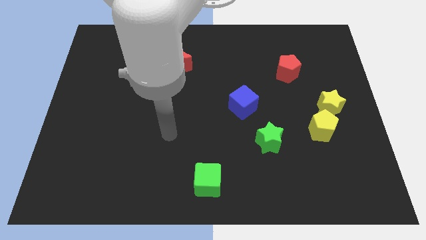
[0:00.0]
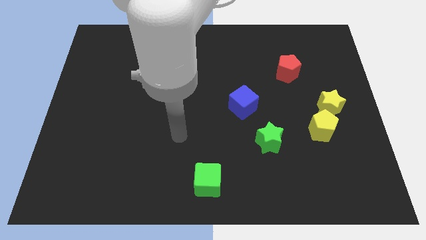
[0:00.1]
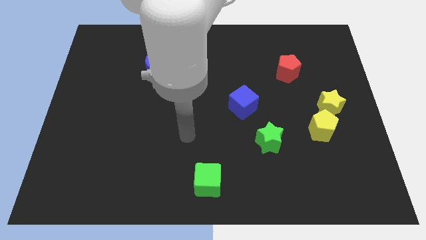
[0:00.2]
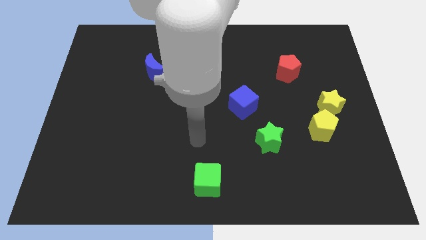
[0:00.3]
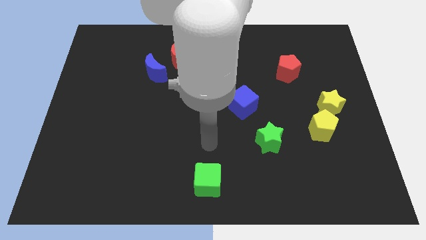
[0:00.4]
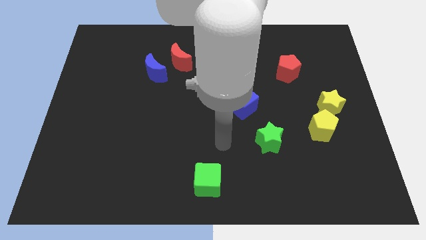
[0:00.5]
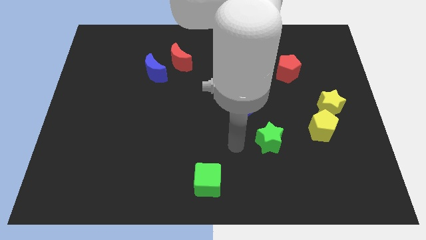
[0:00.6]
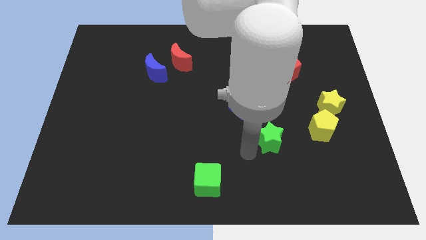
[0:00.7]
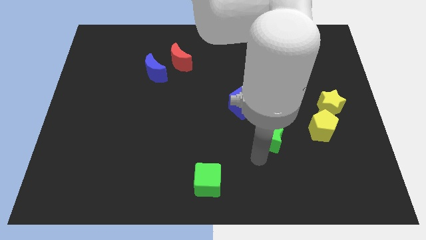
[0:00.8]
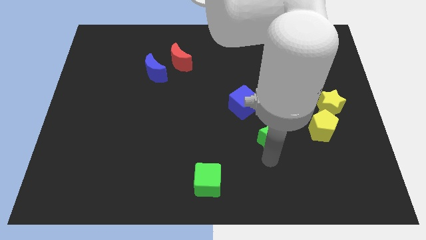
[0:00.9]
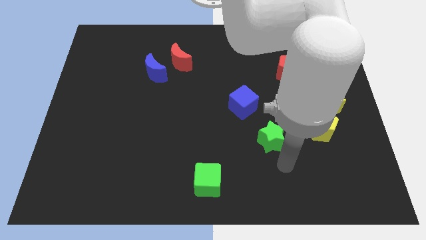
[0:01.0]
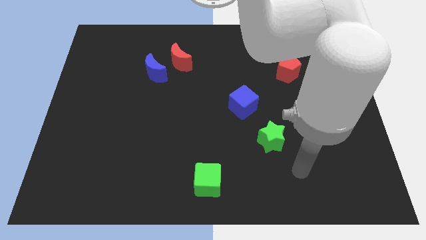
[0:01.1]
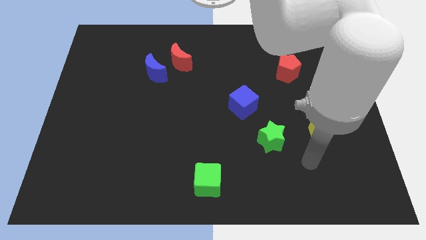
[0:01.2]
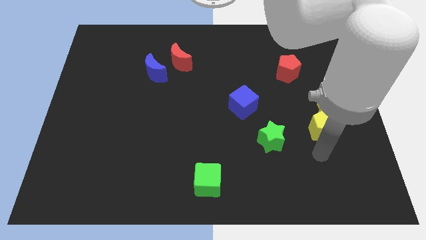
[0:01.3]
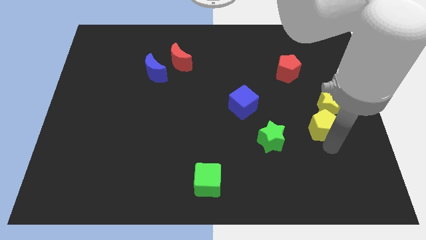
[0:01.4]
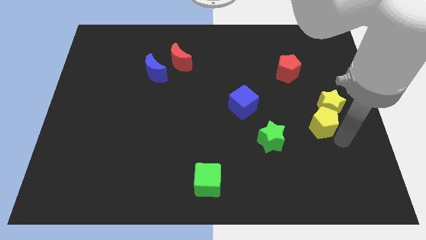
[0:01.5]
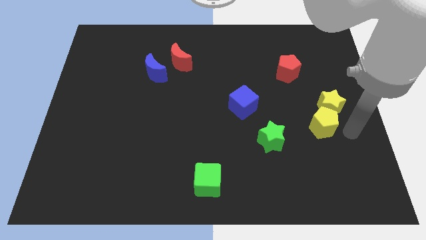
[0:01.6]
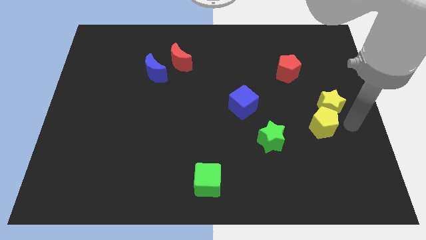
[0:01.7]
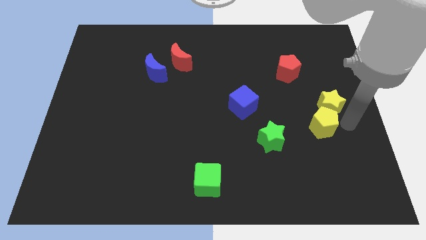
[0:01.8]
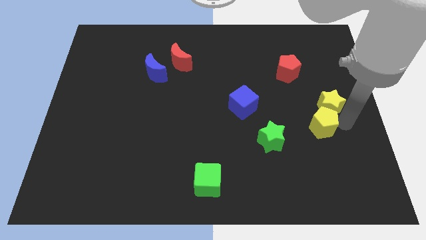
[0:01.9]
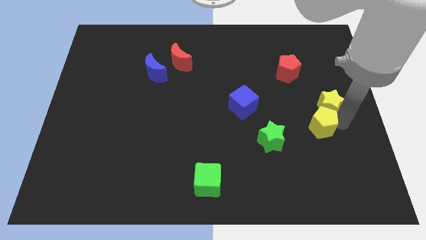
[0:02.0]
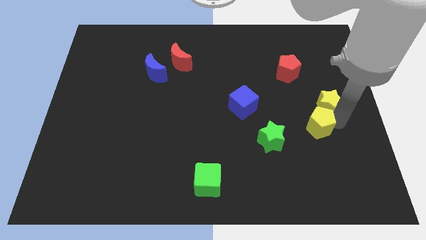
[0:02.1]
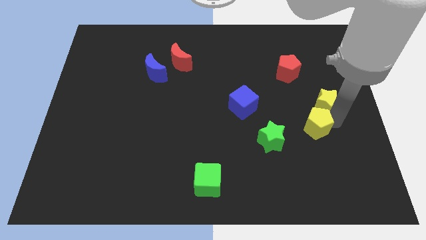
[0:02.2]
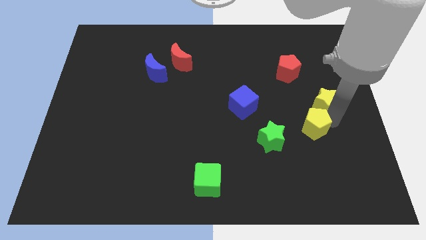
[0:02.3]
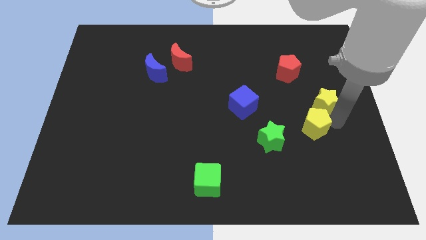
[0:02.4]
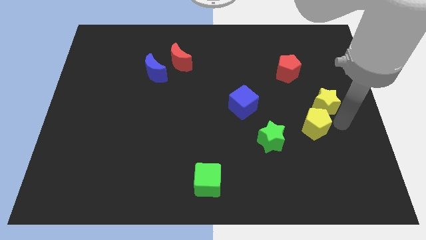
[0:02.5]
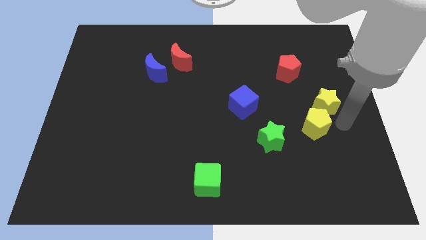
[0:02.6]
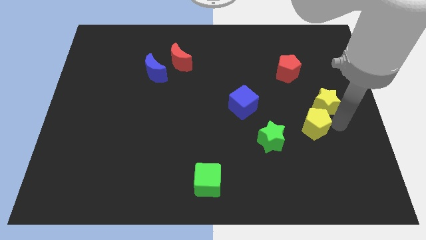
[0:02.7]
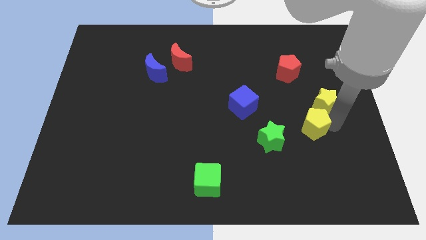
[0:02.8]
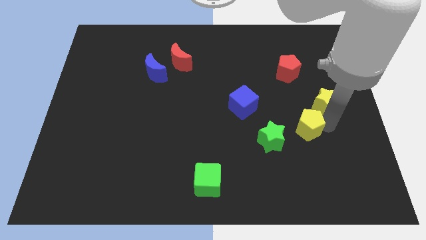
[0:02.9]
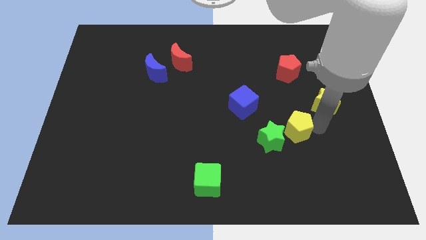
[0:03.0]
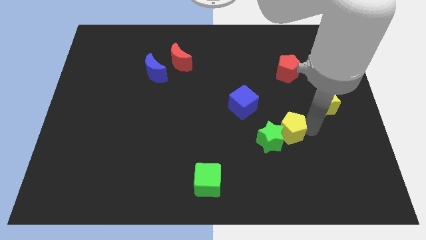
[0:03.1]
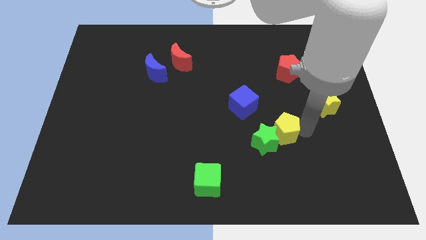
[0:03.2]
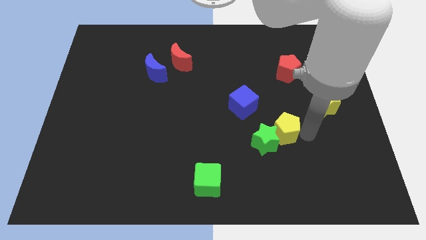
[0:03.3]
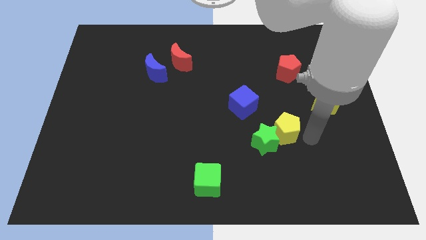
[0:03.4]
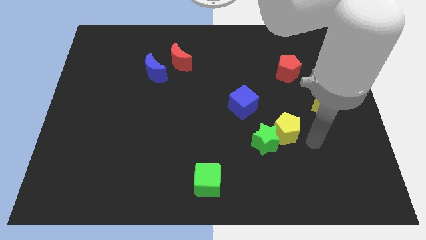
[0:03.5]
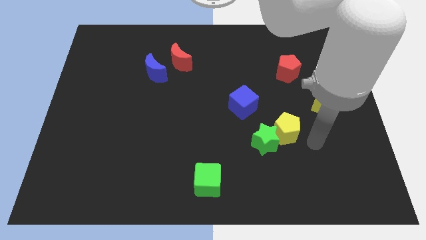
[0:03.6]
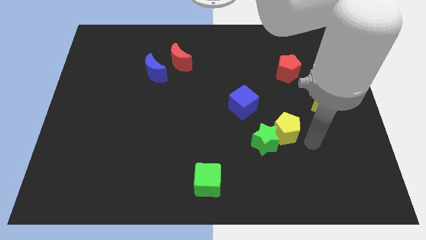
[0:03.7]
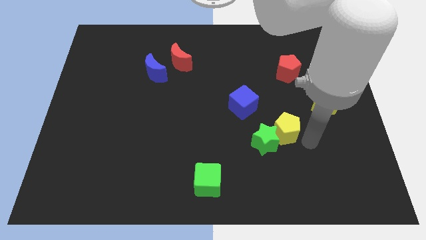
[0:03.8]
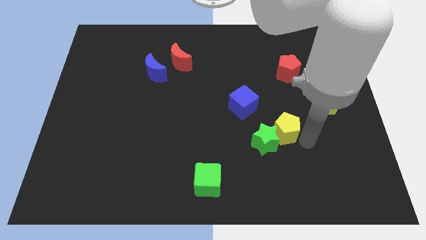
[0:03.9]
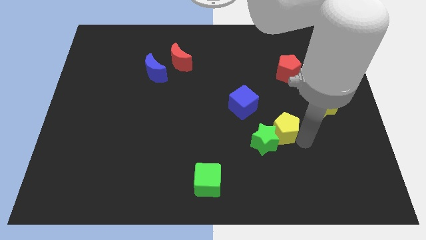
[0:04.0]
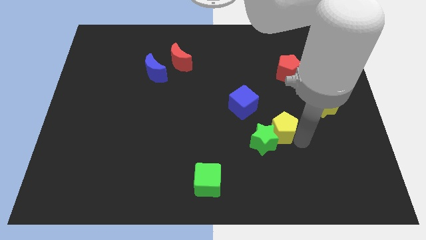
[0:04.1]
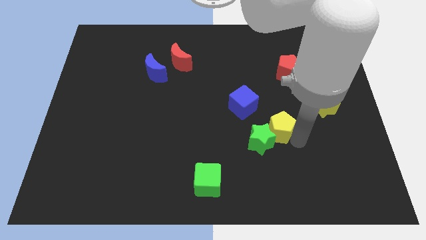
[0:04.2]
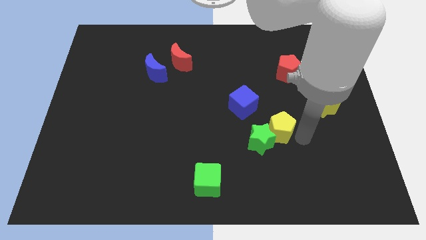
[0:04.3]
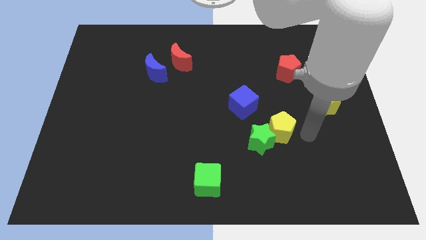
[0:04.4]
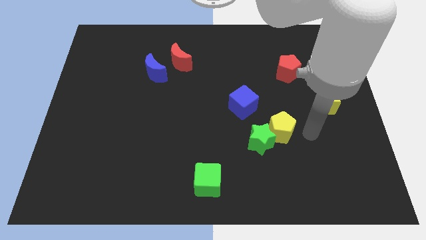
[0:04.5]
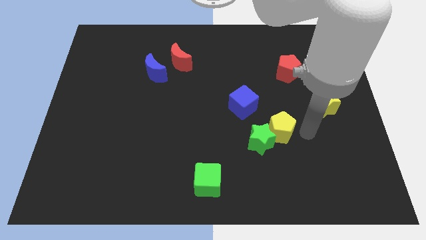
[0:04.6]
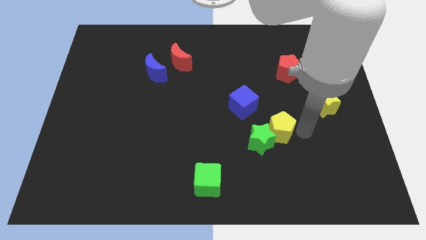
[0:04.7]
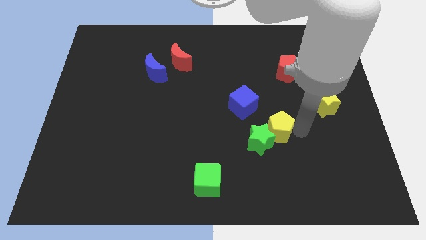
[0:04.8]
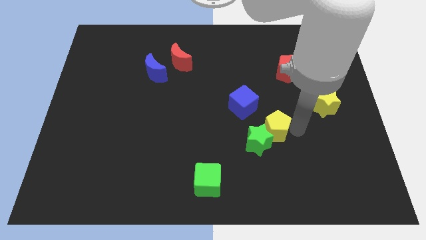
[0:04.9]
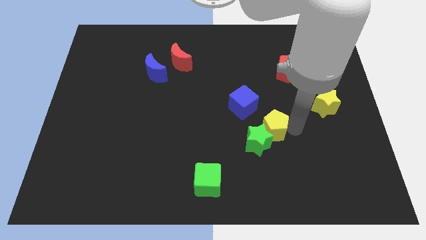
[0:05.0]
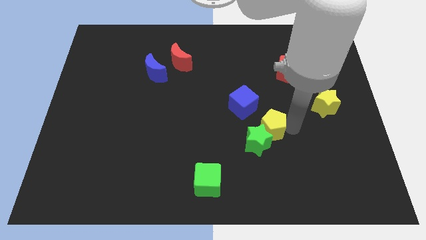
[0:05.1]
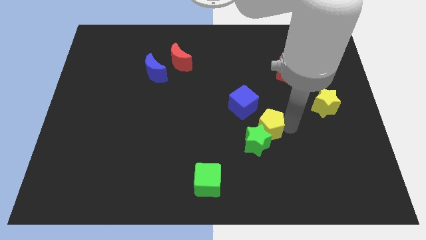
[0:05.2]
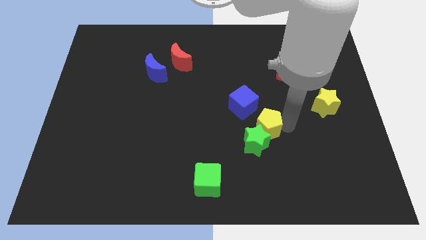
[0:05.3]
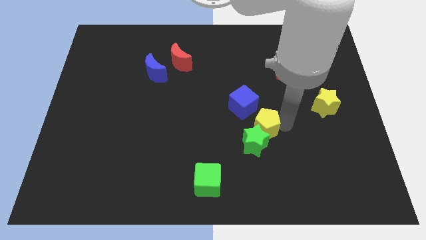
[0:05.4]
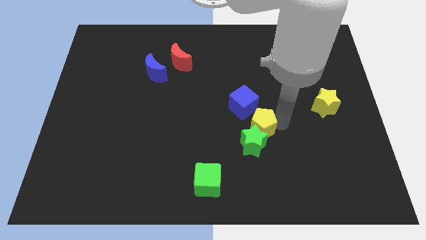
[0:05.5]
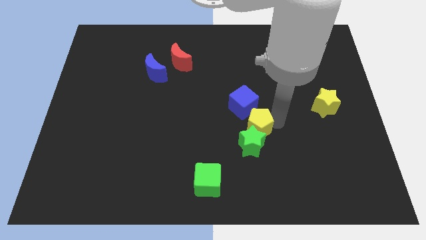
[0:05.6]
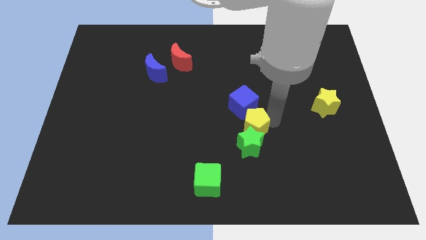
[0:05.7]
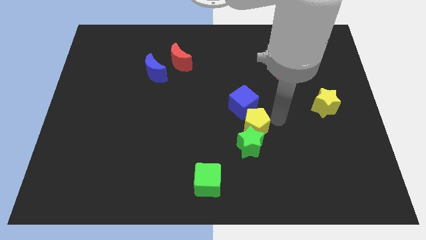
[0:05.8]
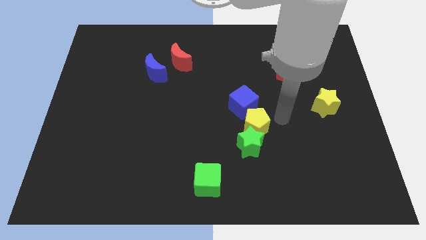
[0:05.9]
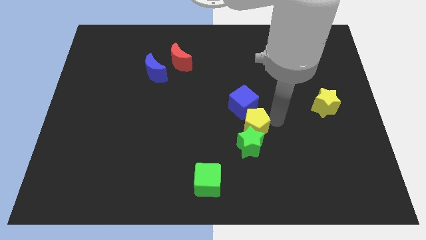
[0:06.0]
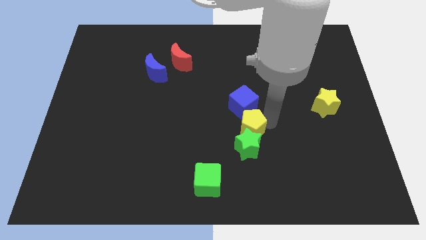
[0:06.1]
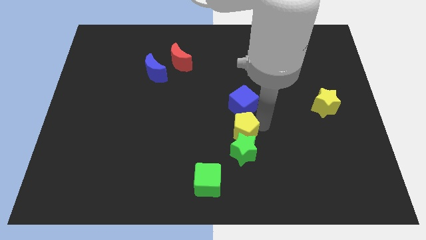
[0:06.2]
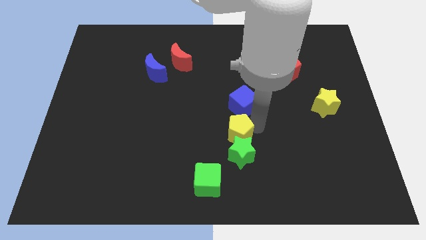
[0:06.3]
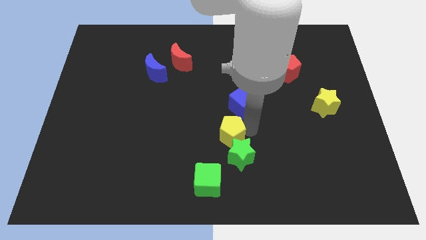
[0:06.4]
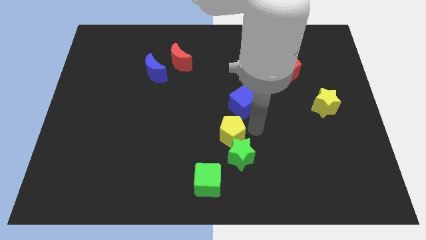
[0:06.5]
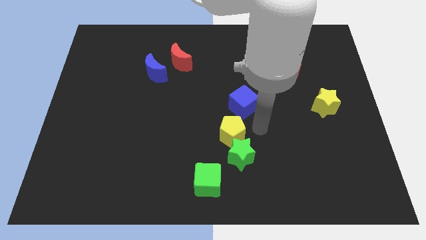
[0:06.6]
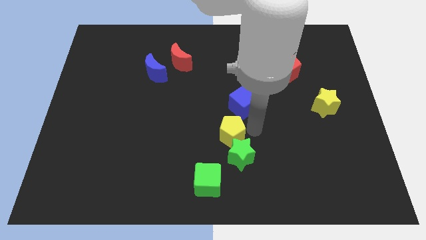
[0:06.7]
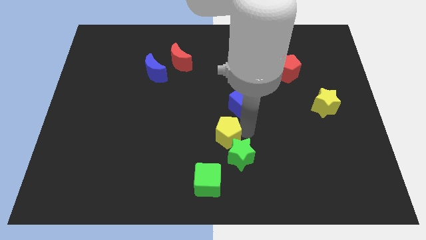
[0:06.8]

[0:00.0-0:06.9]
put the yellow pentagon above the green cube
